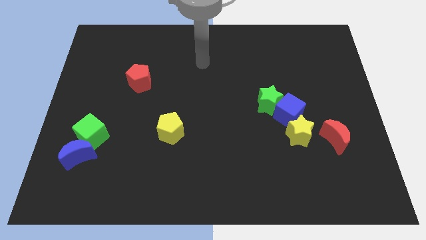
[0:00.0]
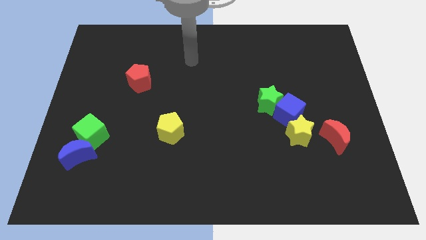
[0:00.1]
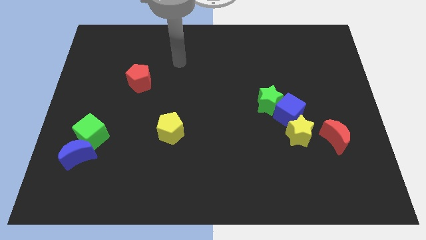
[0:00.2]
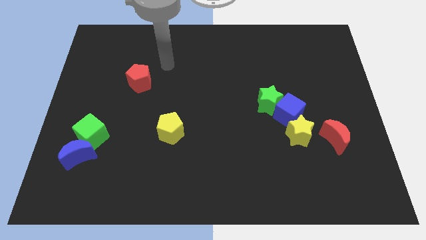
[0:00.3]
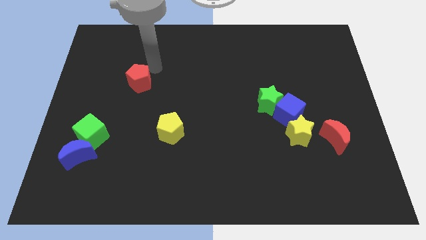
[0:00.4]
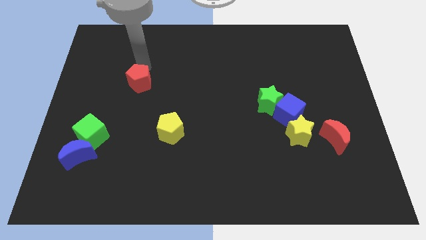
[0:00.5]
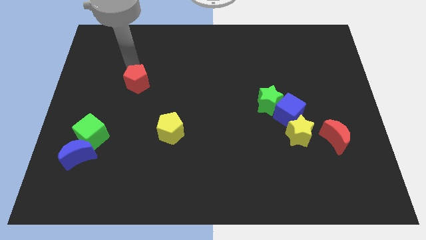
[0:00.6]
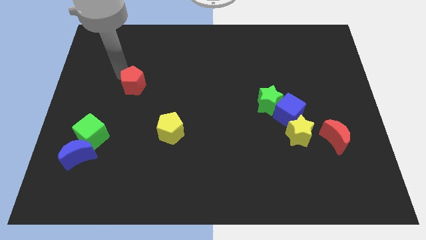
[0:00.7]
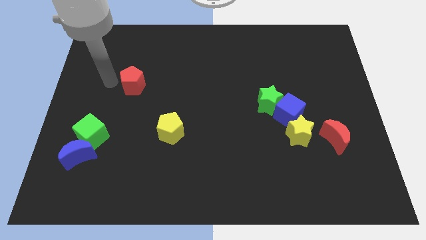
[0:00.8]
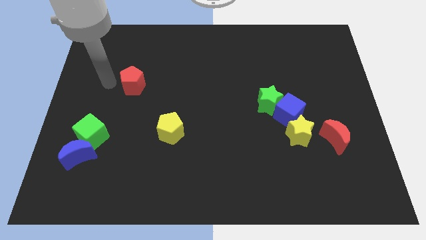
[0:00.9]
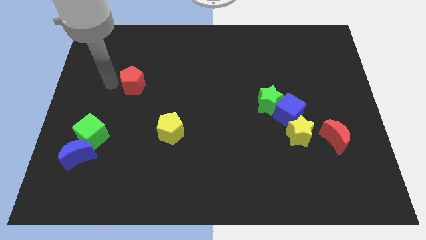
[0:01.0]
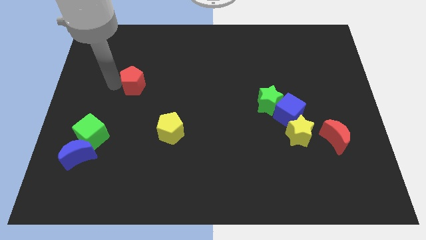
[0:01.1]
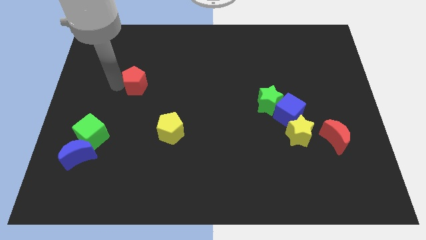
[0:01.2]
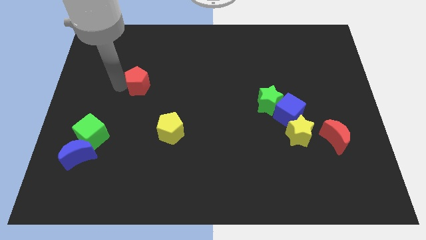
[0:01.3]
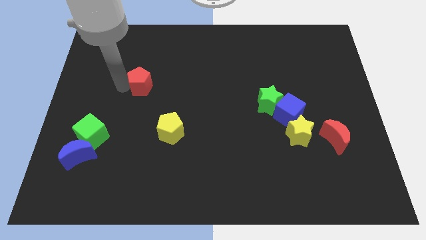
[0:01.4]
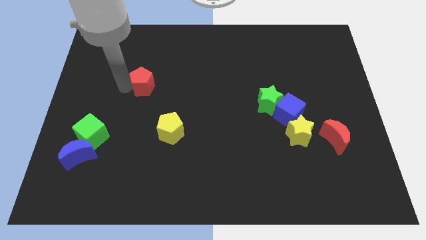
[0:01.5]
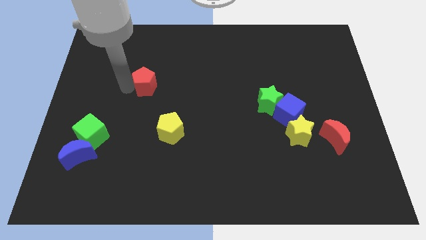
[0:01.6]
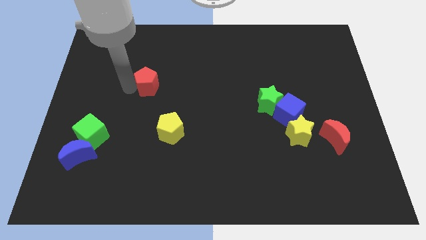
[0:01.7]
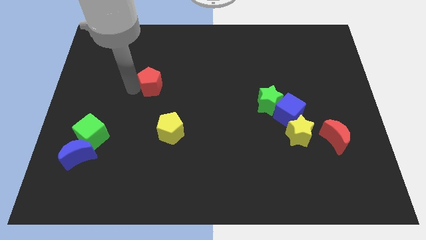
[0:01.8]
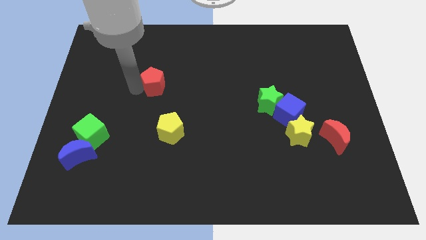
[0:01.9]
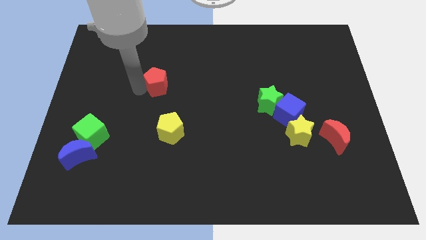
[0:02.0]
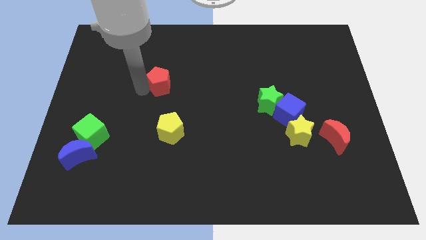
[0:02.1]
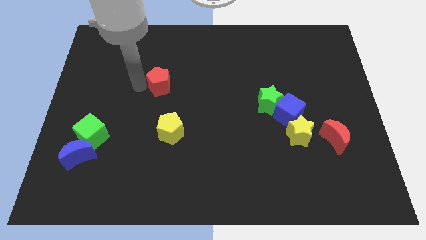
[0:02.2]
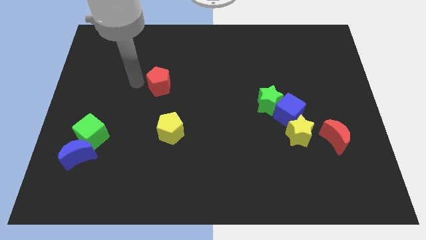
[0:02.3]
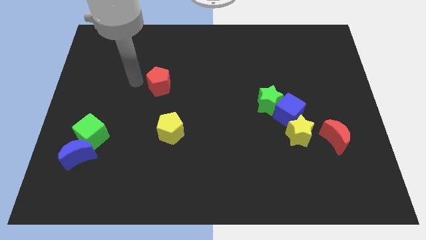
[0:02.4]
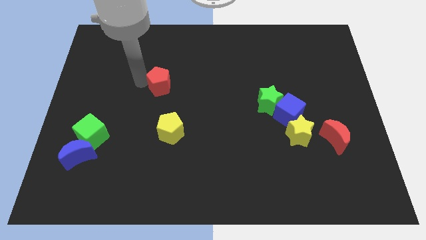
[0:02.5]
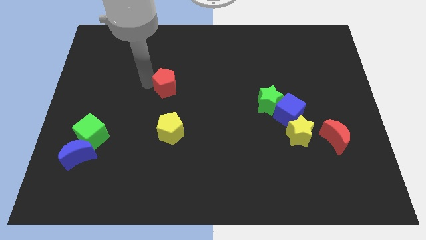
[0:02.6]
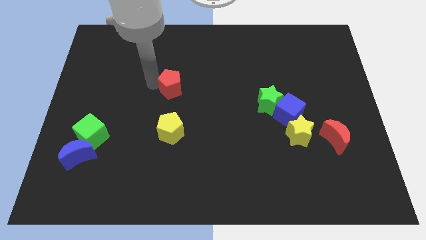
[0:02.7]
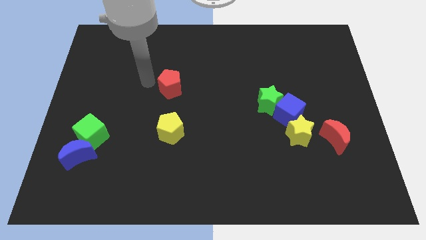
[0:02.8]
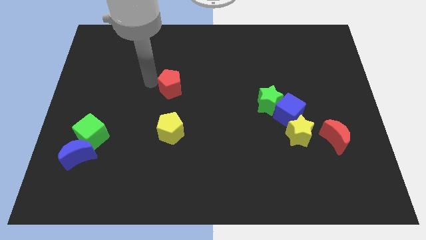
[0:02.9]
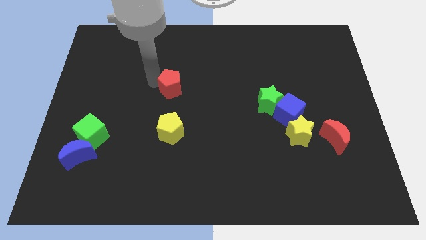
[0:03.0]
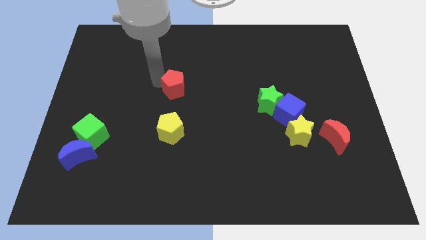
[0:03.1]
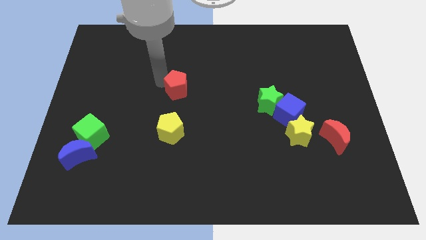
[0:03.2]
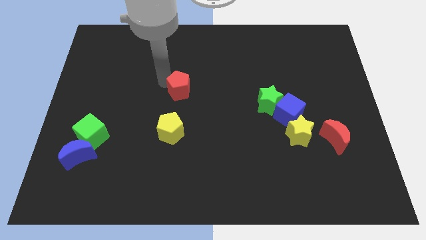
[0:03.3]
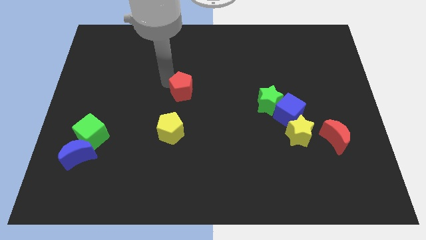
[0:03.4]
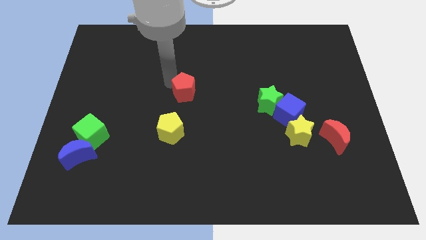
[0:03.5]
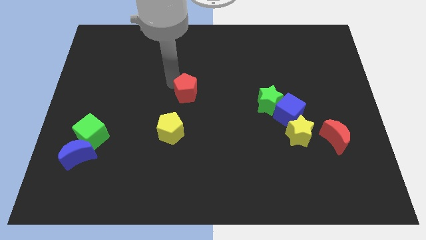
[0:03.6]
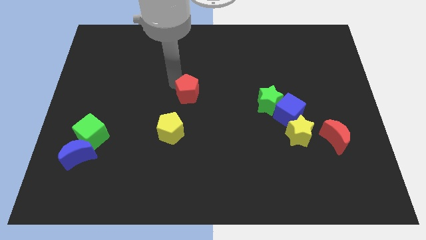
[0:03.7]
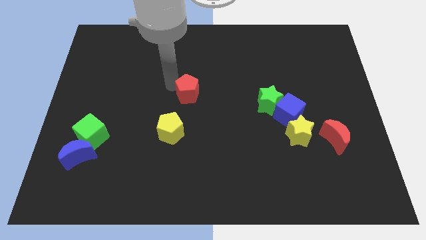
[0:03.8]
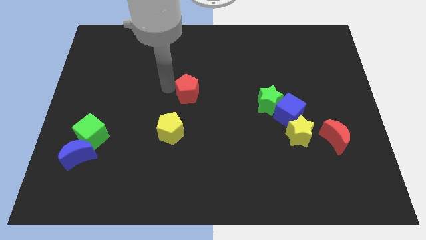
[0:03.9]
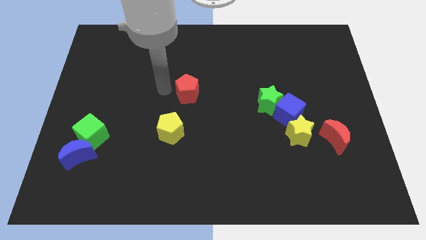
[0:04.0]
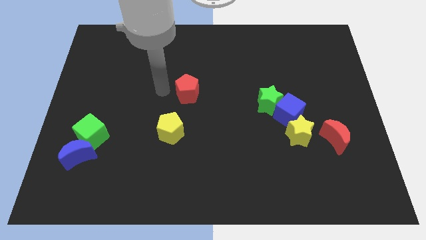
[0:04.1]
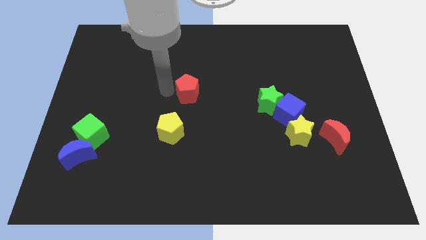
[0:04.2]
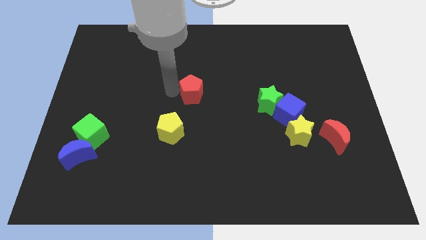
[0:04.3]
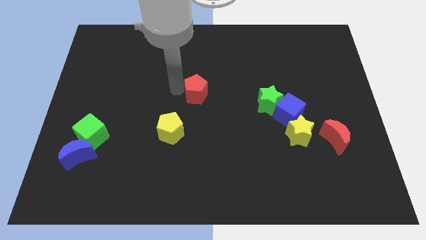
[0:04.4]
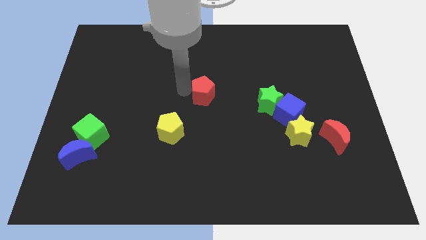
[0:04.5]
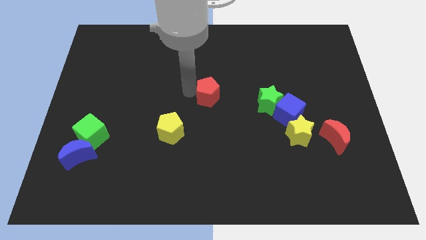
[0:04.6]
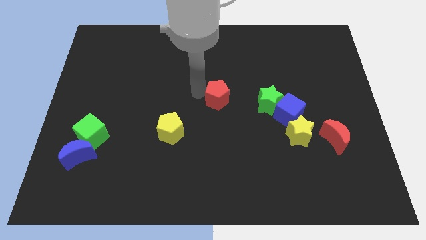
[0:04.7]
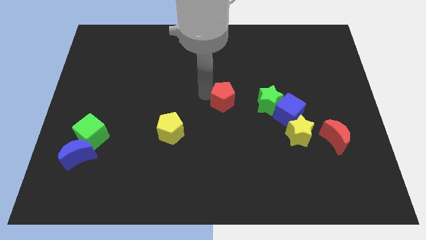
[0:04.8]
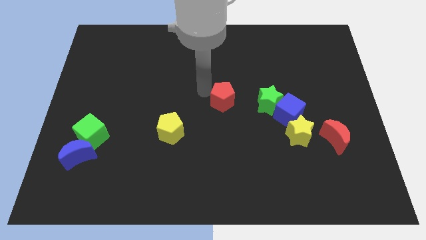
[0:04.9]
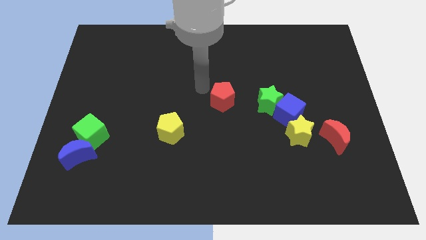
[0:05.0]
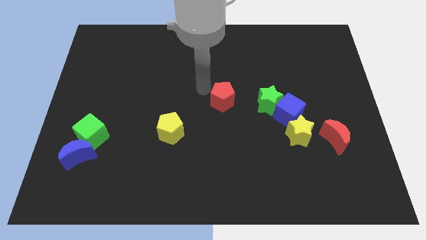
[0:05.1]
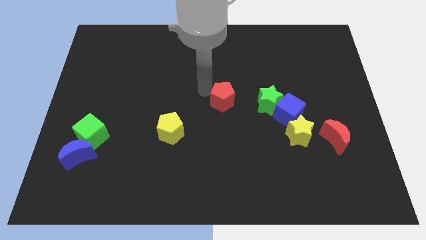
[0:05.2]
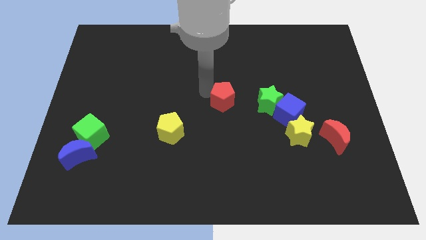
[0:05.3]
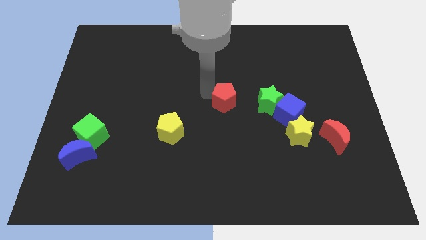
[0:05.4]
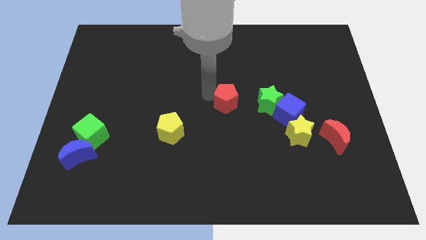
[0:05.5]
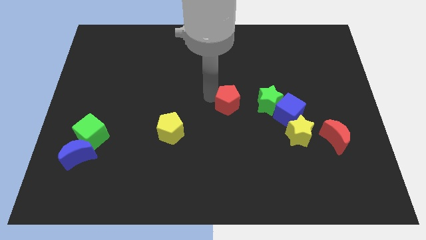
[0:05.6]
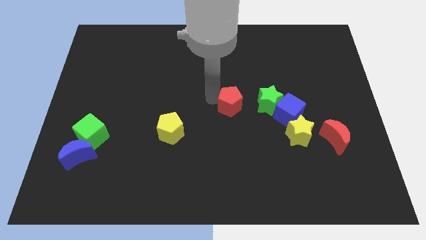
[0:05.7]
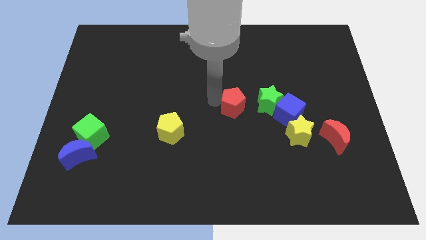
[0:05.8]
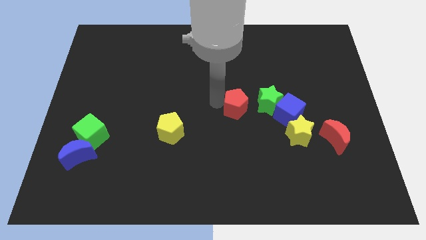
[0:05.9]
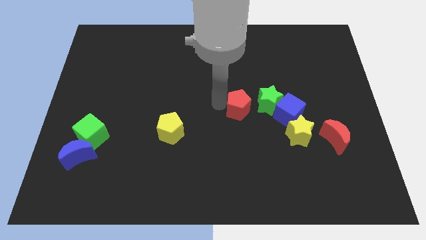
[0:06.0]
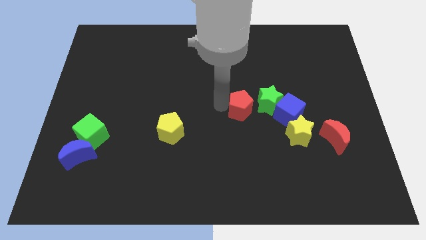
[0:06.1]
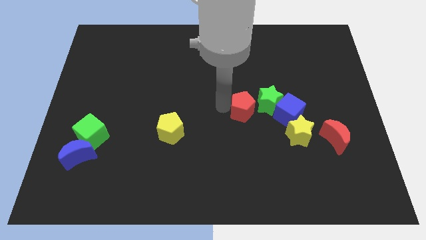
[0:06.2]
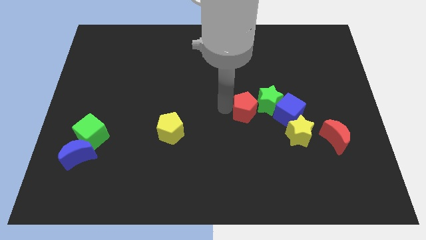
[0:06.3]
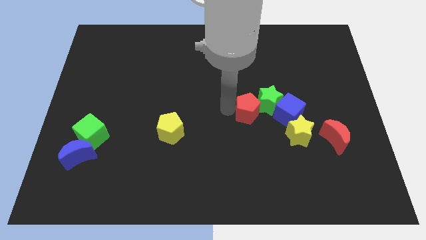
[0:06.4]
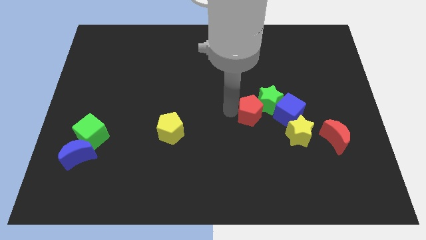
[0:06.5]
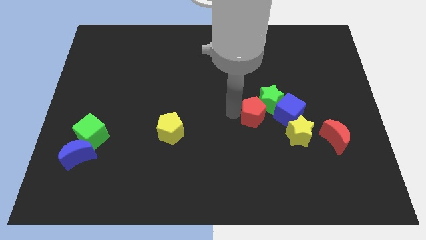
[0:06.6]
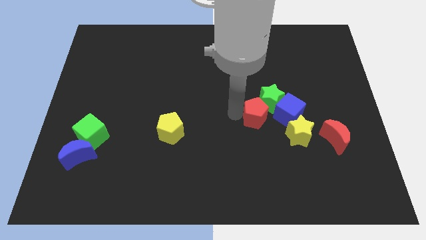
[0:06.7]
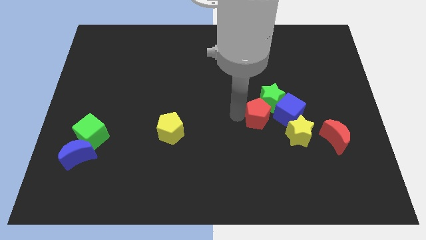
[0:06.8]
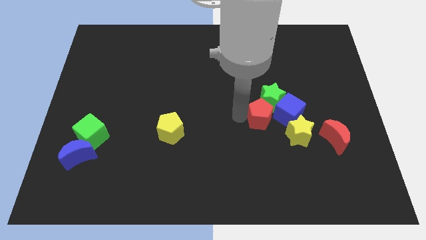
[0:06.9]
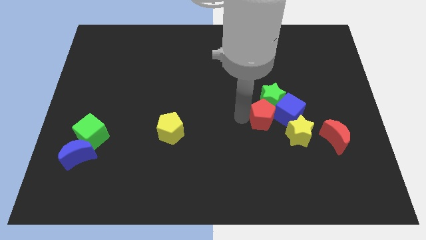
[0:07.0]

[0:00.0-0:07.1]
push the red pentagon towards the blue cube
